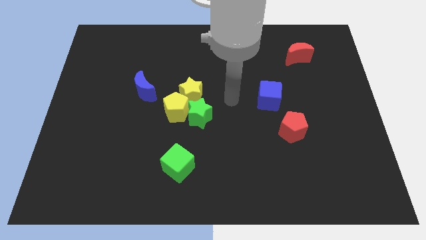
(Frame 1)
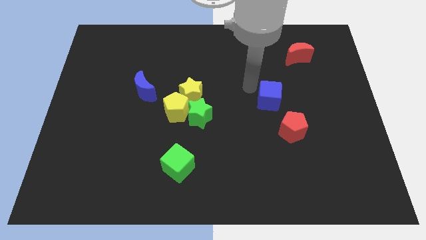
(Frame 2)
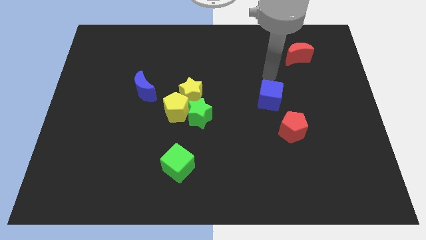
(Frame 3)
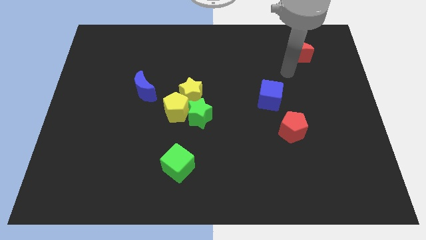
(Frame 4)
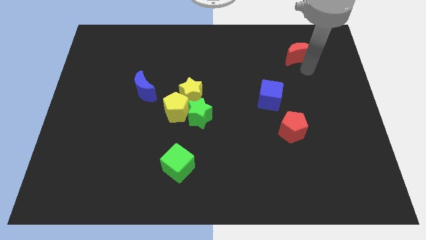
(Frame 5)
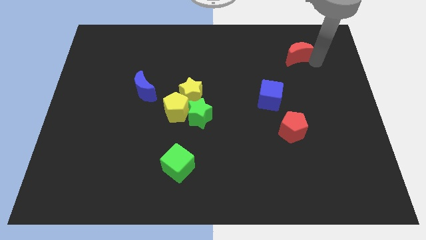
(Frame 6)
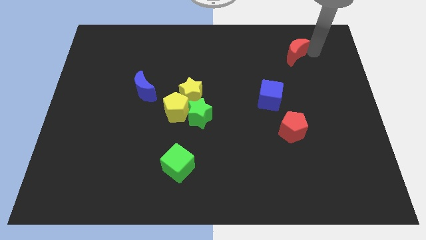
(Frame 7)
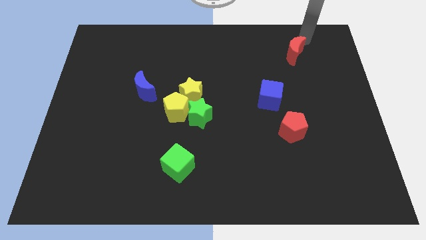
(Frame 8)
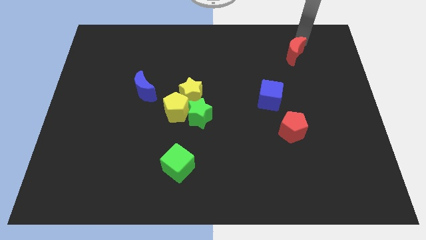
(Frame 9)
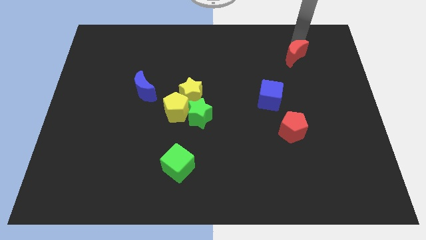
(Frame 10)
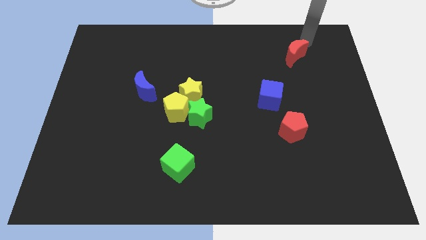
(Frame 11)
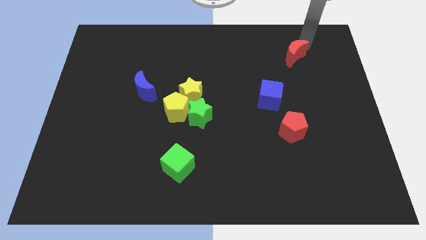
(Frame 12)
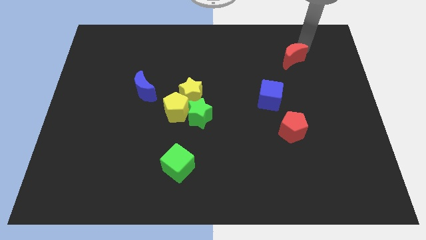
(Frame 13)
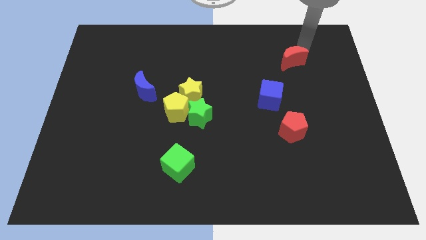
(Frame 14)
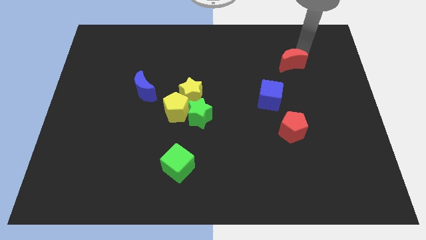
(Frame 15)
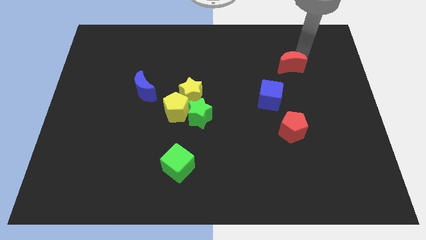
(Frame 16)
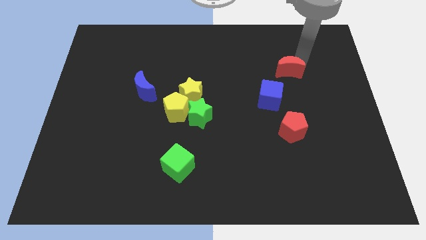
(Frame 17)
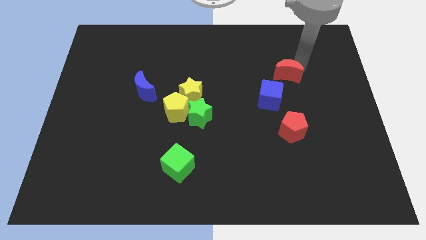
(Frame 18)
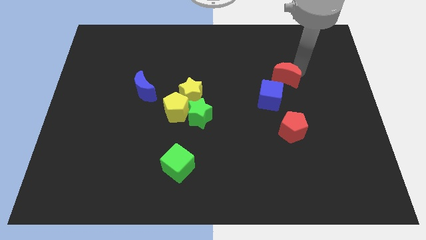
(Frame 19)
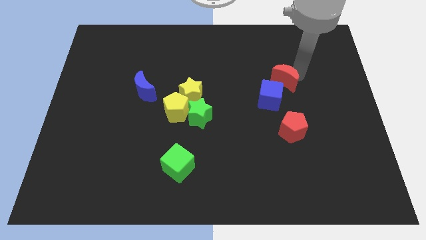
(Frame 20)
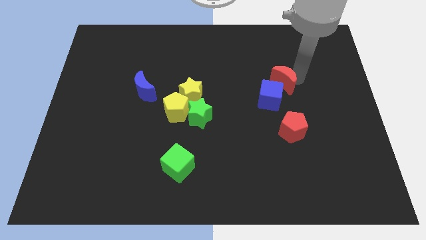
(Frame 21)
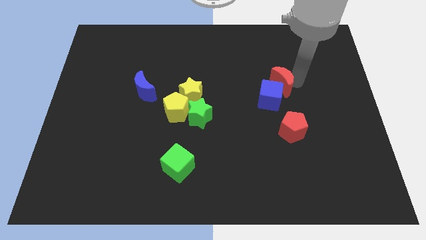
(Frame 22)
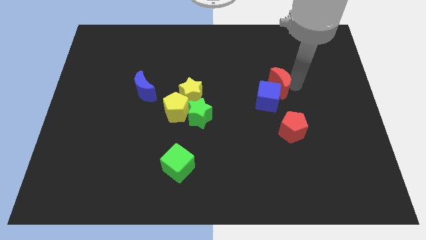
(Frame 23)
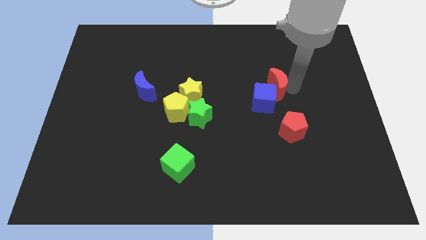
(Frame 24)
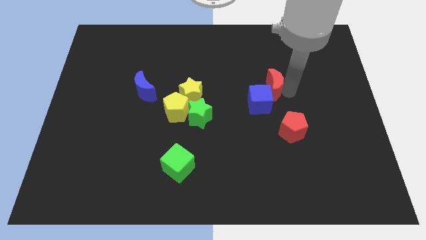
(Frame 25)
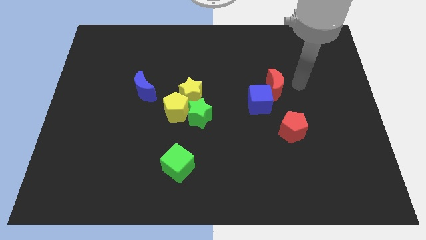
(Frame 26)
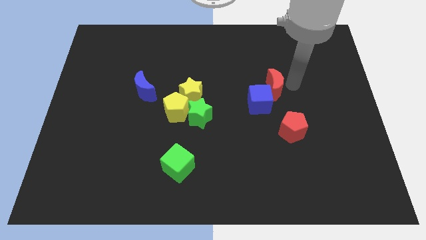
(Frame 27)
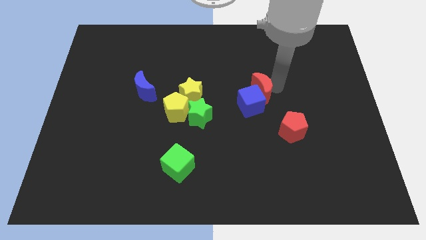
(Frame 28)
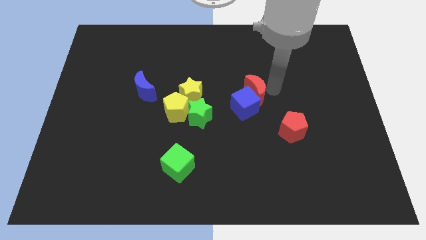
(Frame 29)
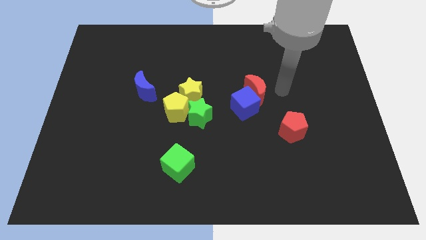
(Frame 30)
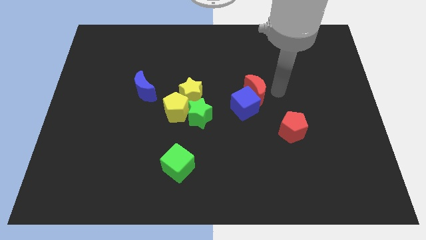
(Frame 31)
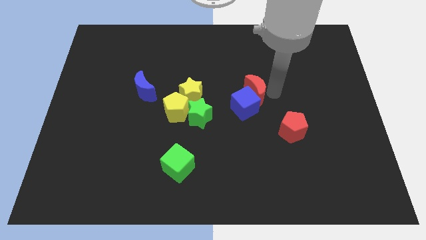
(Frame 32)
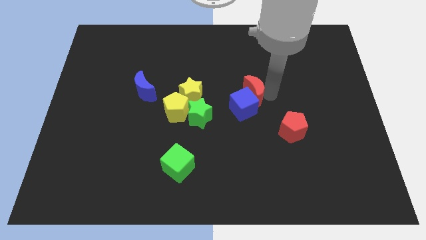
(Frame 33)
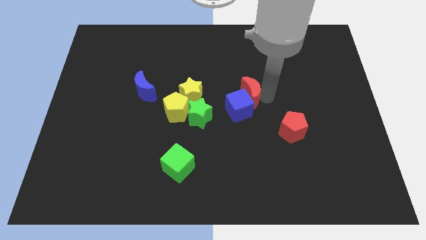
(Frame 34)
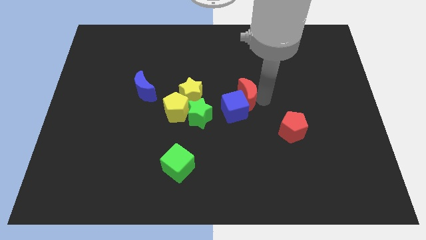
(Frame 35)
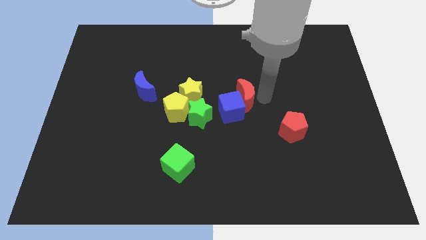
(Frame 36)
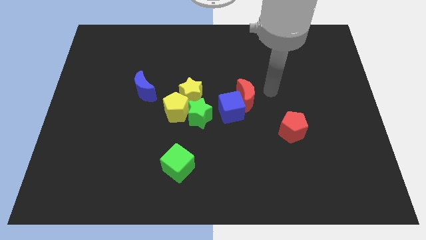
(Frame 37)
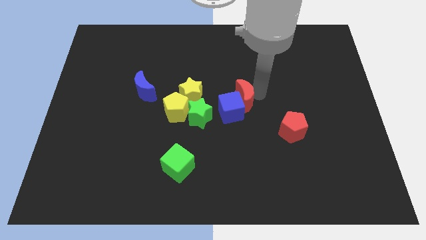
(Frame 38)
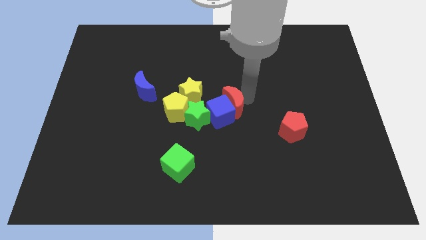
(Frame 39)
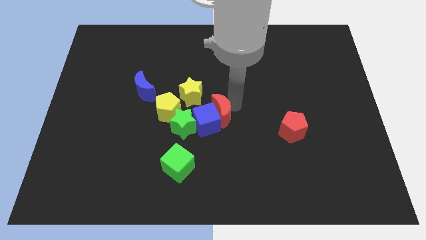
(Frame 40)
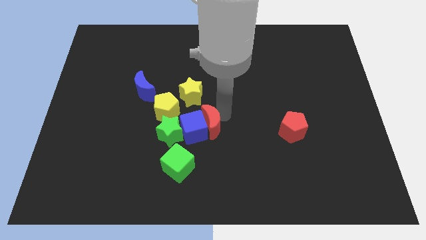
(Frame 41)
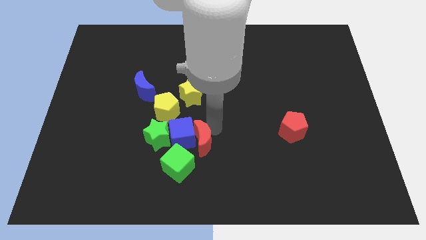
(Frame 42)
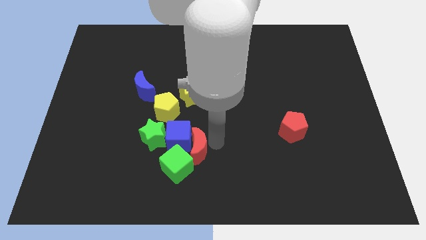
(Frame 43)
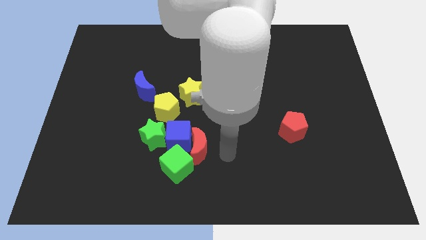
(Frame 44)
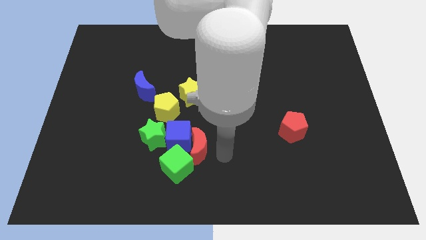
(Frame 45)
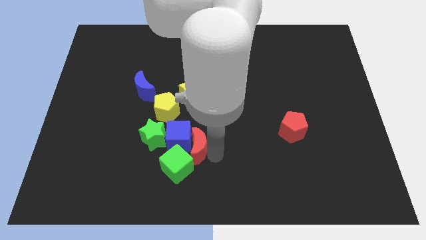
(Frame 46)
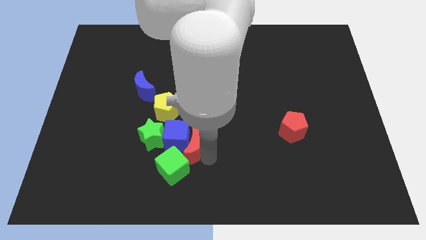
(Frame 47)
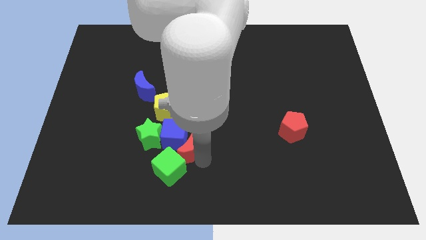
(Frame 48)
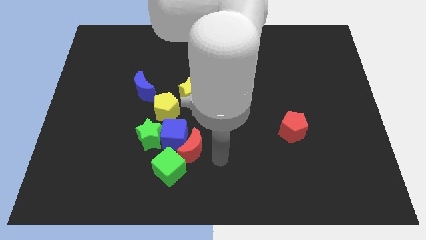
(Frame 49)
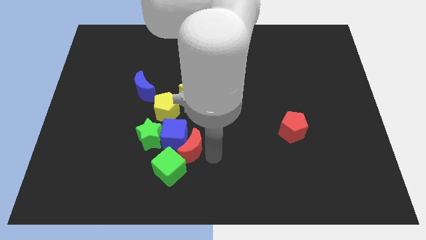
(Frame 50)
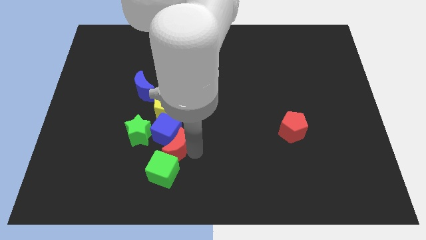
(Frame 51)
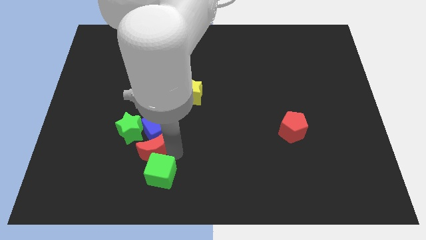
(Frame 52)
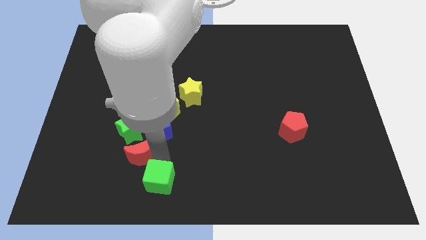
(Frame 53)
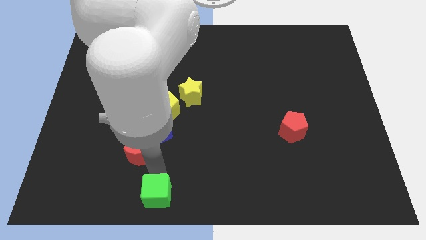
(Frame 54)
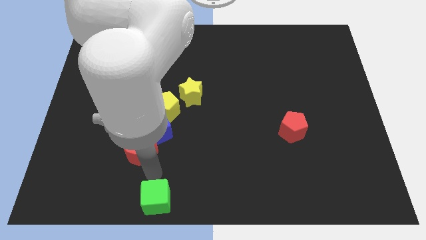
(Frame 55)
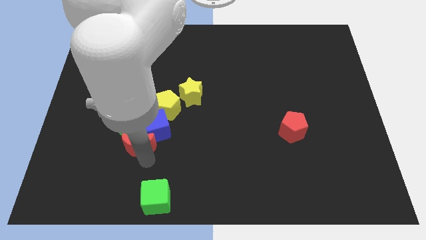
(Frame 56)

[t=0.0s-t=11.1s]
slide the red moon to the green star

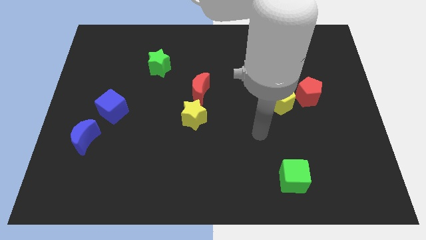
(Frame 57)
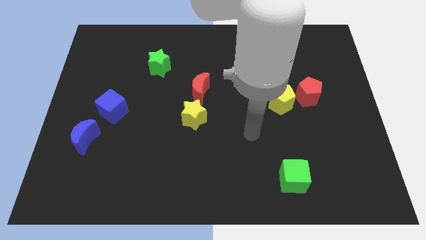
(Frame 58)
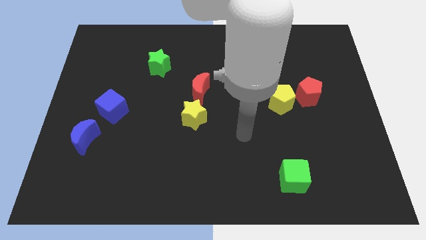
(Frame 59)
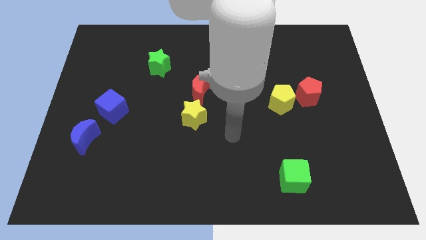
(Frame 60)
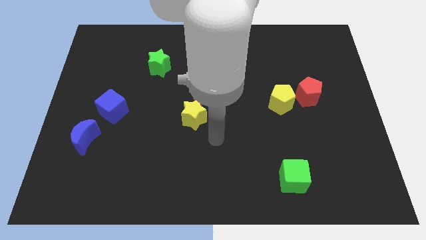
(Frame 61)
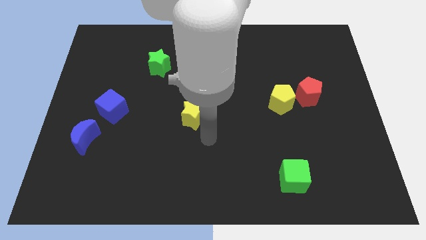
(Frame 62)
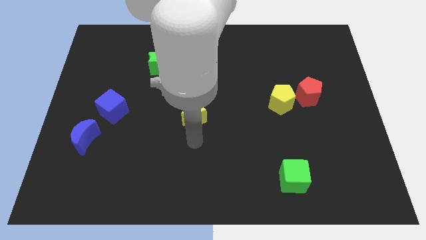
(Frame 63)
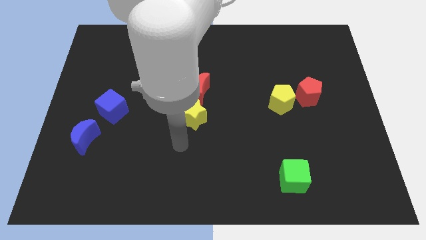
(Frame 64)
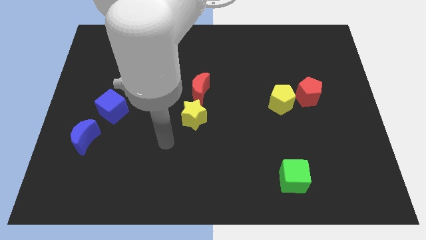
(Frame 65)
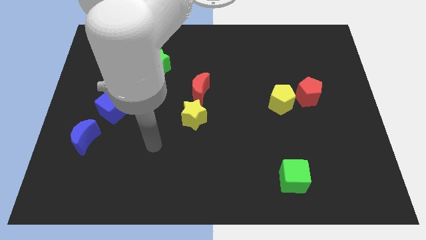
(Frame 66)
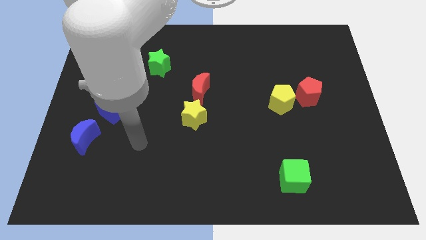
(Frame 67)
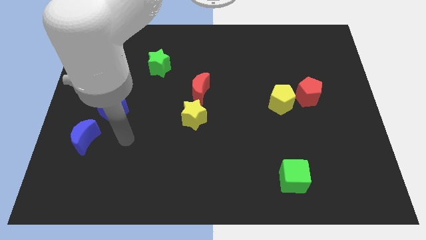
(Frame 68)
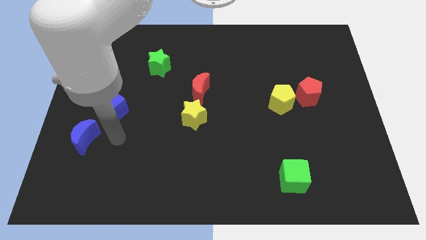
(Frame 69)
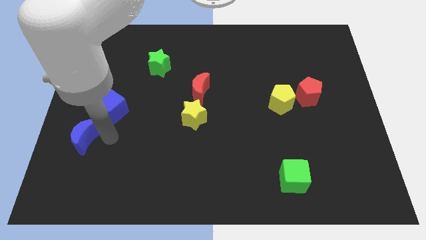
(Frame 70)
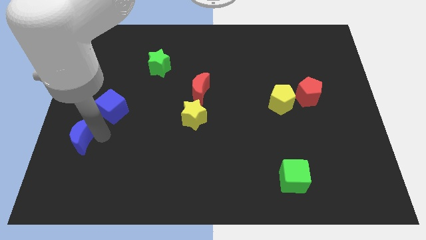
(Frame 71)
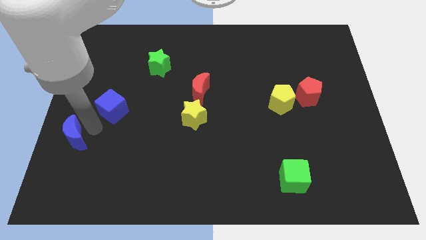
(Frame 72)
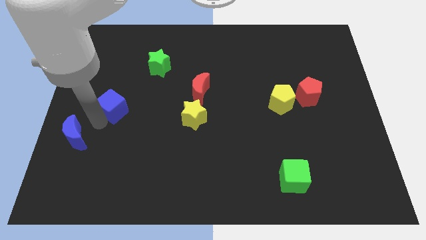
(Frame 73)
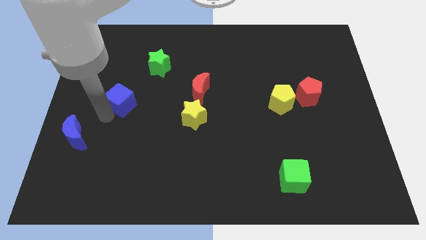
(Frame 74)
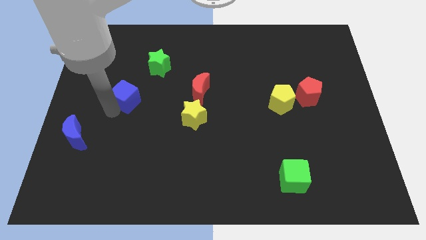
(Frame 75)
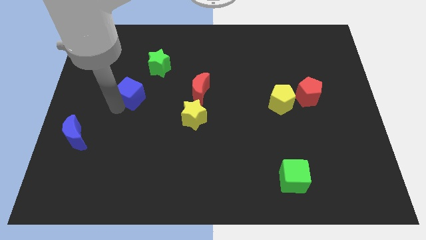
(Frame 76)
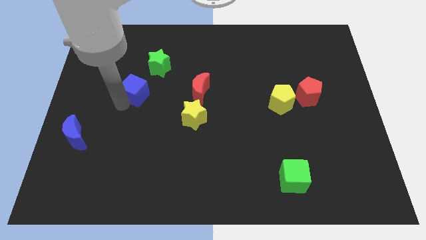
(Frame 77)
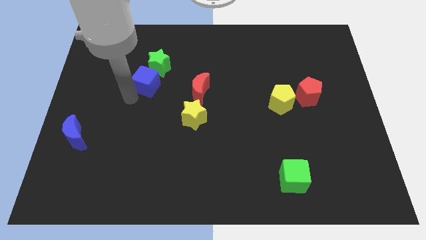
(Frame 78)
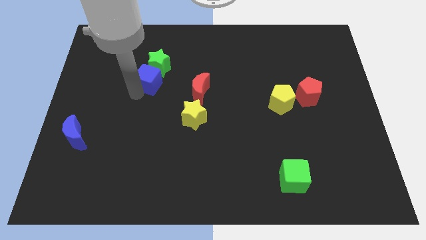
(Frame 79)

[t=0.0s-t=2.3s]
slide the blue cube next to the green star
